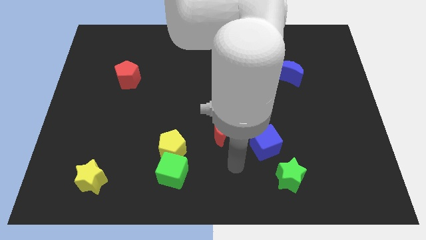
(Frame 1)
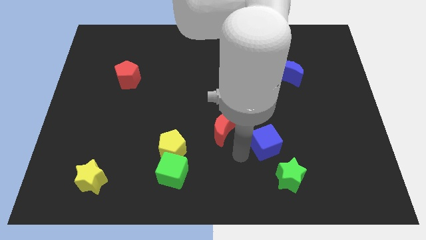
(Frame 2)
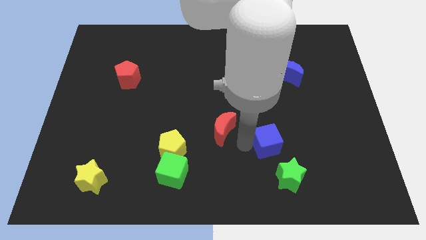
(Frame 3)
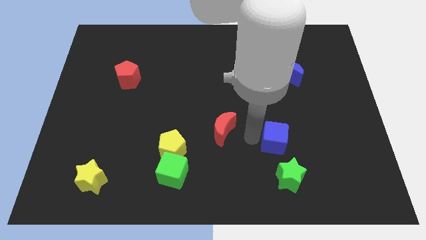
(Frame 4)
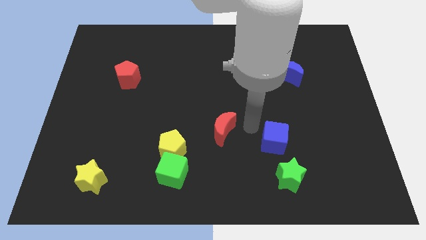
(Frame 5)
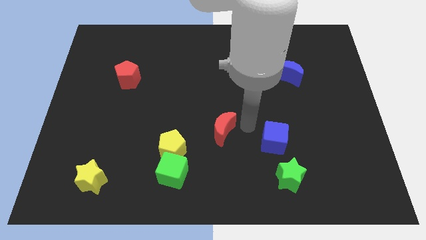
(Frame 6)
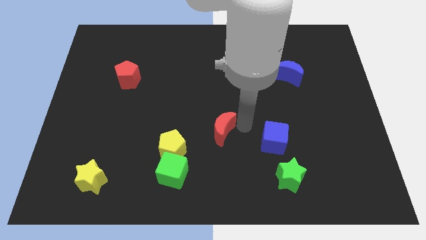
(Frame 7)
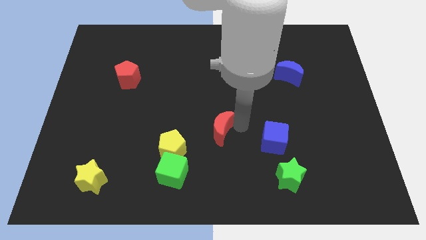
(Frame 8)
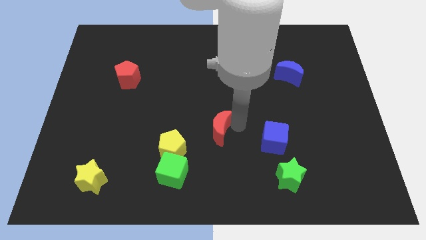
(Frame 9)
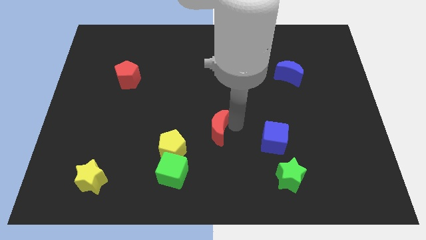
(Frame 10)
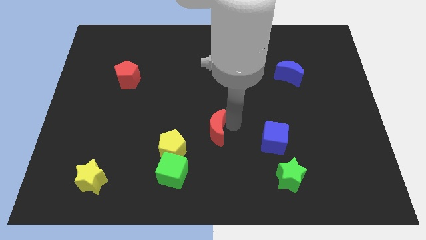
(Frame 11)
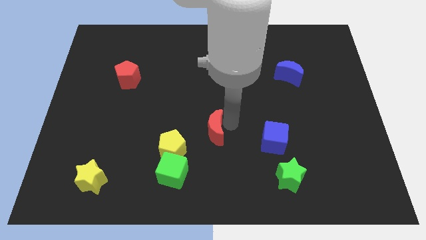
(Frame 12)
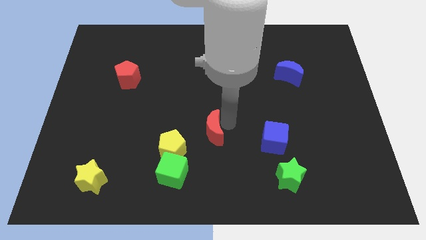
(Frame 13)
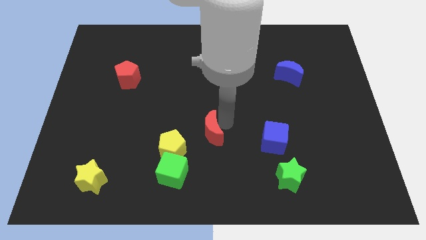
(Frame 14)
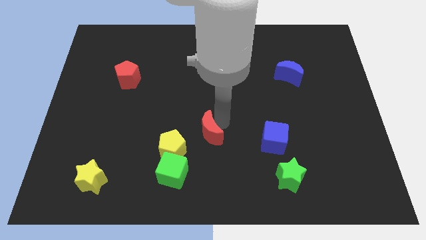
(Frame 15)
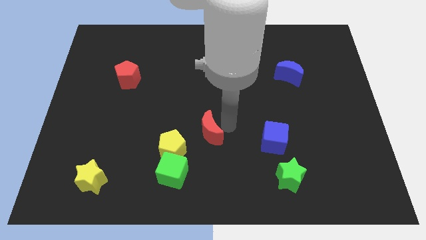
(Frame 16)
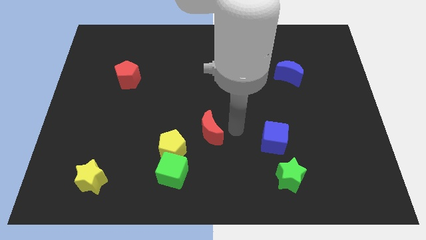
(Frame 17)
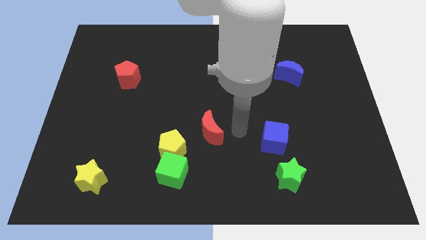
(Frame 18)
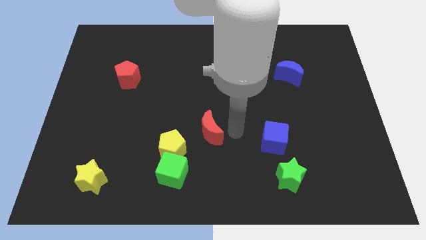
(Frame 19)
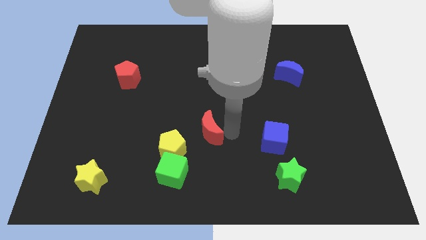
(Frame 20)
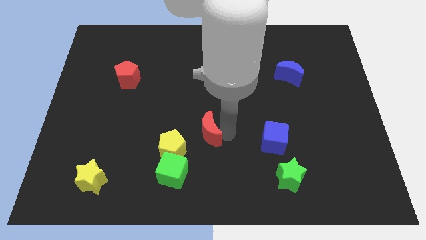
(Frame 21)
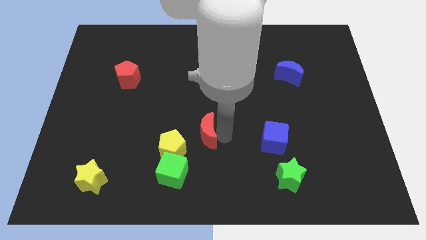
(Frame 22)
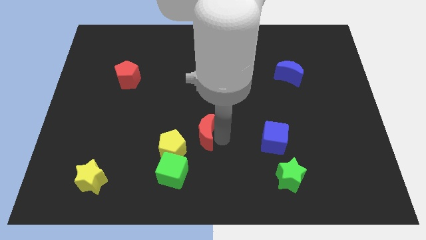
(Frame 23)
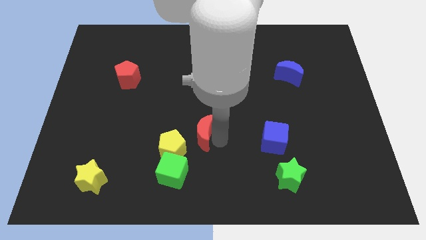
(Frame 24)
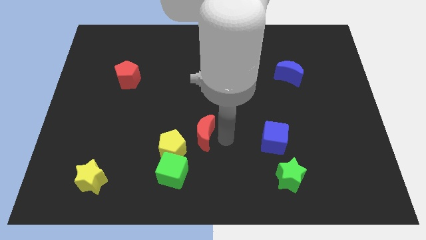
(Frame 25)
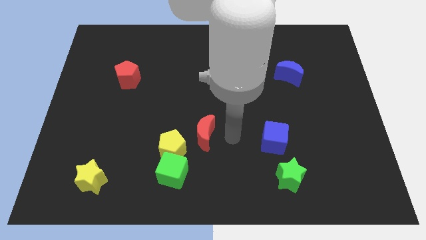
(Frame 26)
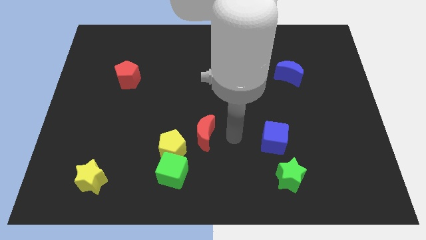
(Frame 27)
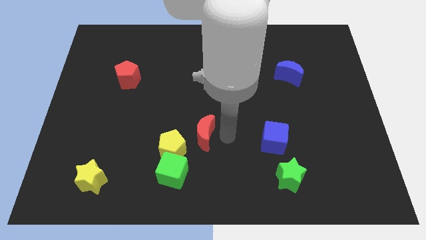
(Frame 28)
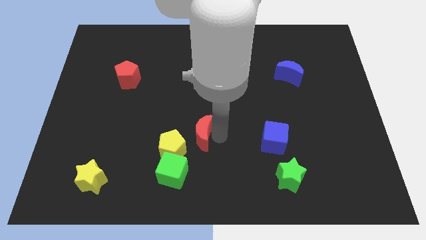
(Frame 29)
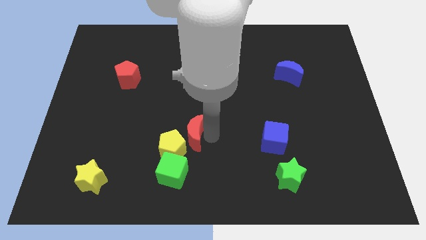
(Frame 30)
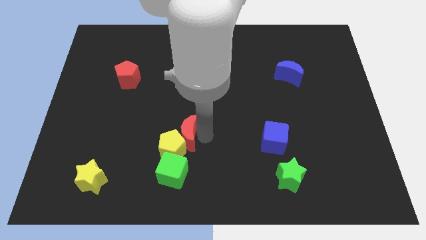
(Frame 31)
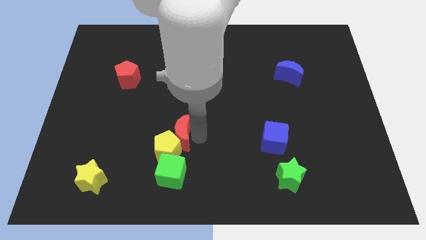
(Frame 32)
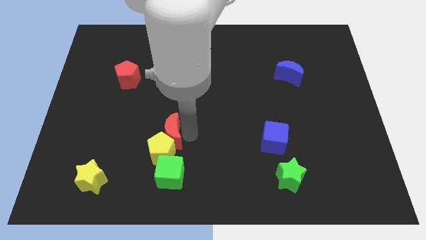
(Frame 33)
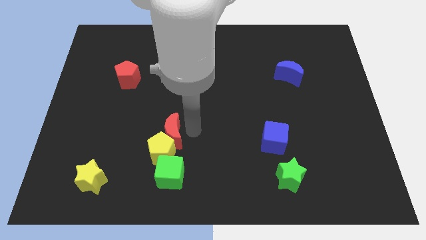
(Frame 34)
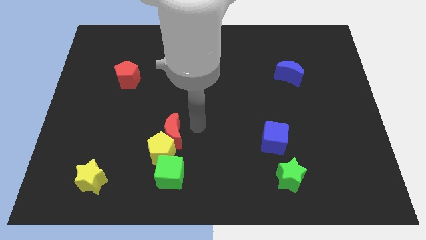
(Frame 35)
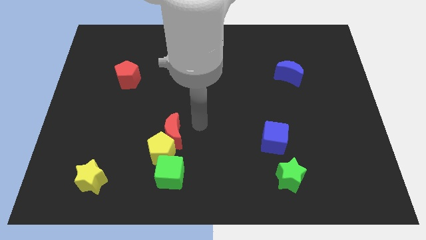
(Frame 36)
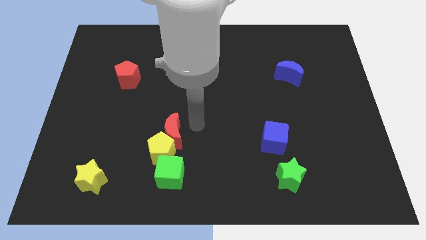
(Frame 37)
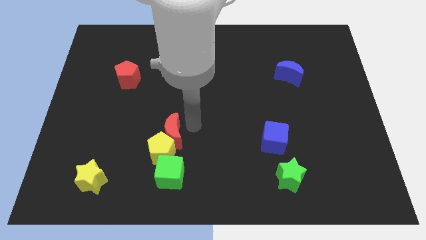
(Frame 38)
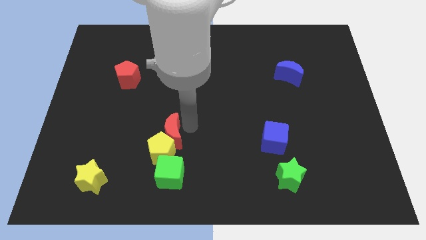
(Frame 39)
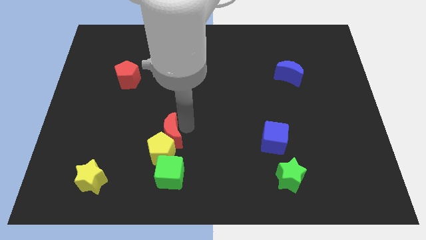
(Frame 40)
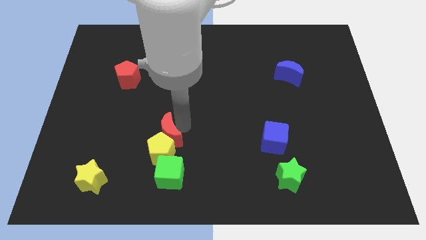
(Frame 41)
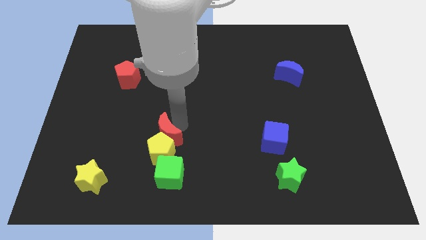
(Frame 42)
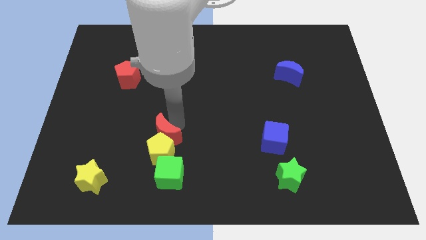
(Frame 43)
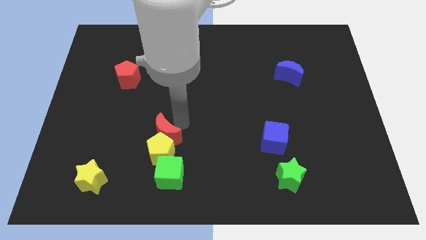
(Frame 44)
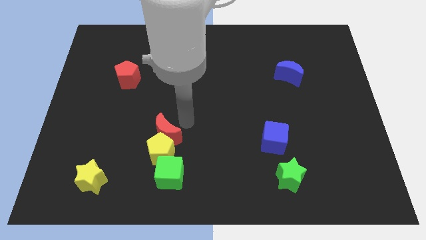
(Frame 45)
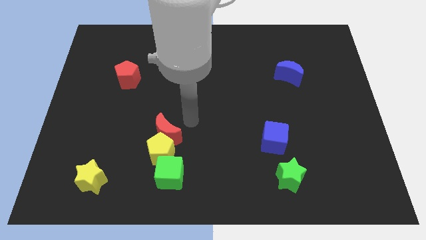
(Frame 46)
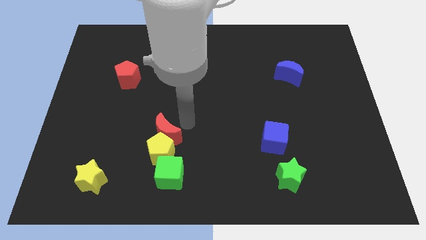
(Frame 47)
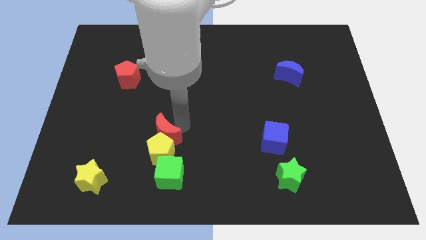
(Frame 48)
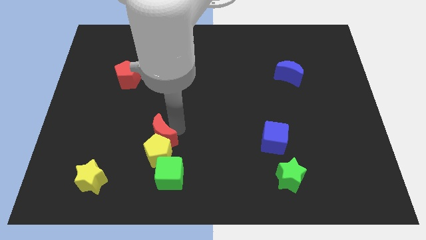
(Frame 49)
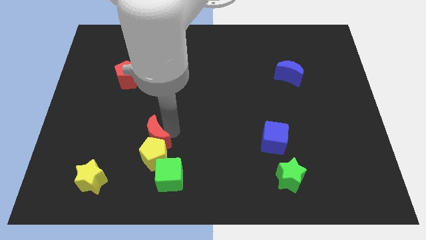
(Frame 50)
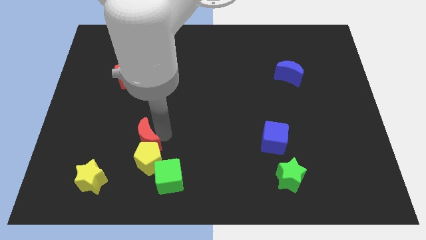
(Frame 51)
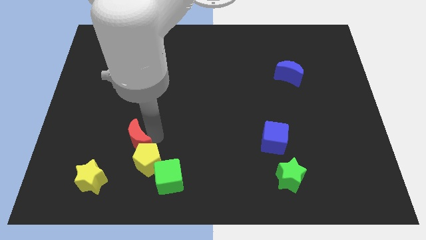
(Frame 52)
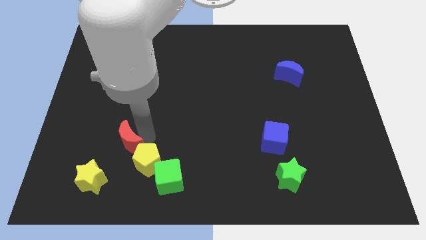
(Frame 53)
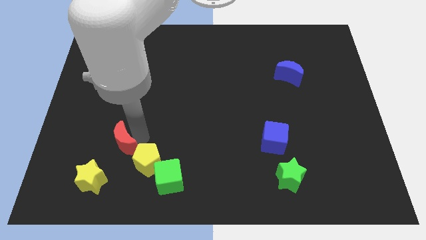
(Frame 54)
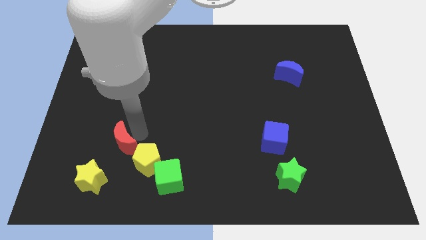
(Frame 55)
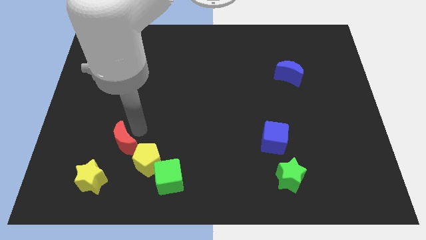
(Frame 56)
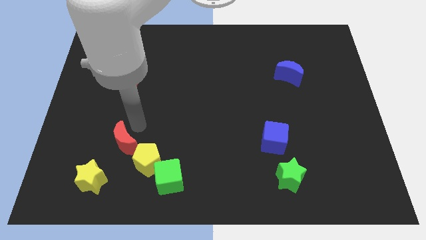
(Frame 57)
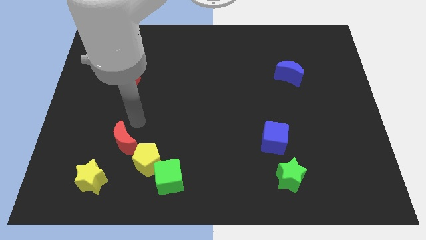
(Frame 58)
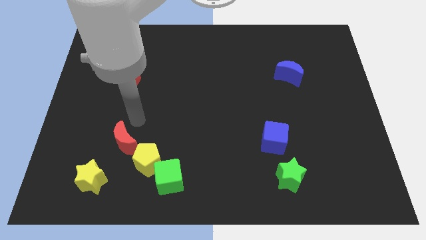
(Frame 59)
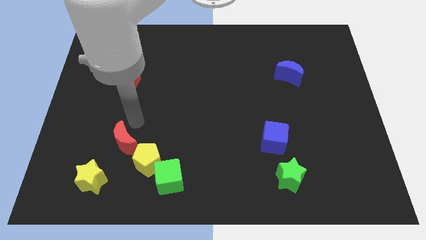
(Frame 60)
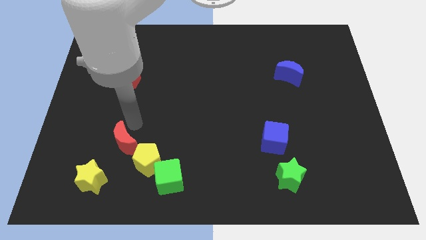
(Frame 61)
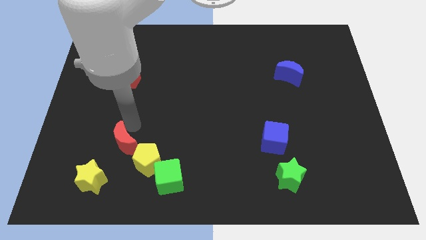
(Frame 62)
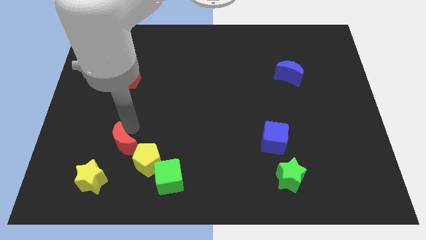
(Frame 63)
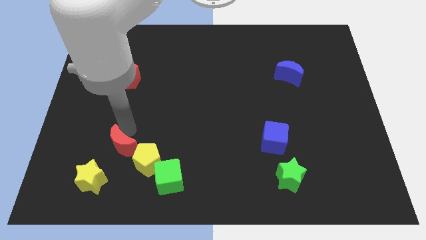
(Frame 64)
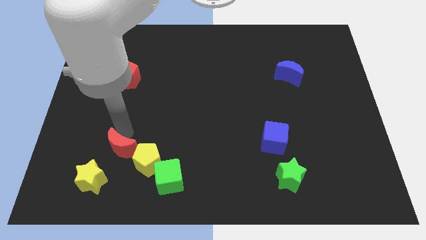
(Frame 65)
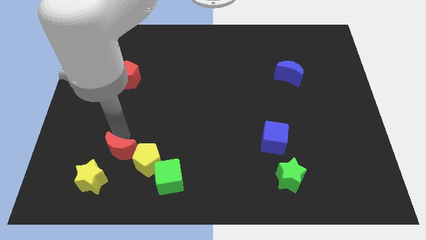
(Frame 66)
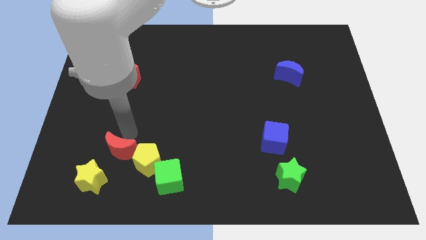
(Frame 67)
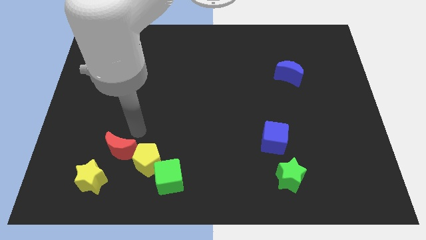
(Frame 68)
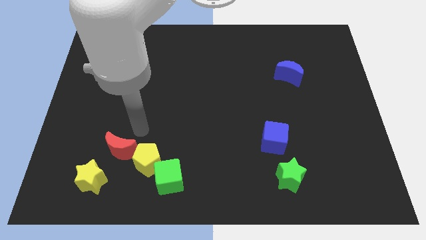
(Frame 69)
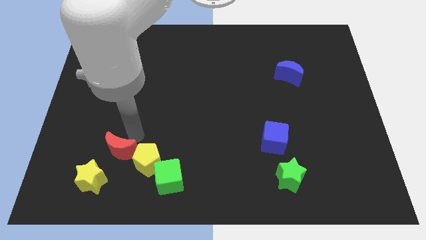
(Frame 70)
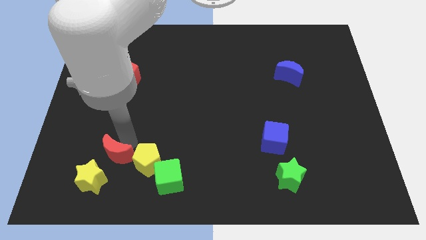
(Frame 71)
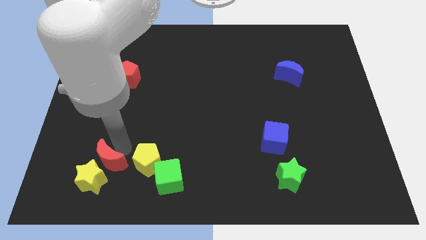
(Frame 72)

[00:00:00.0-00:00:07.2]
move the red moon to the yellow star
